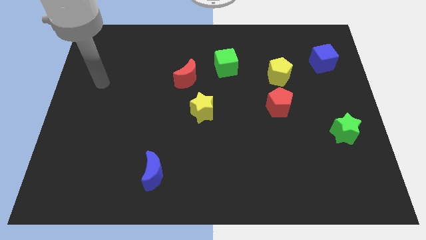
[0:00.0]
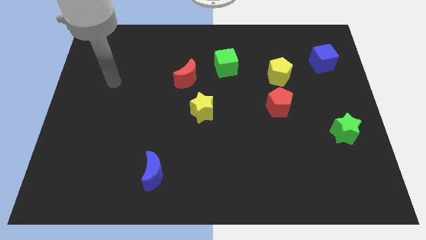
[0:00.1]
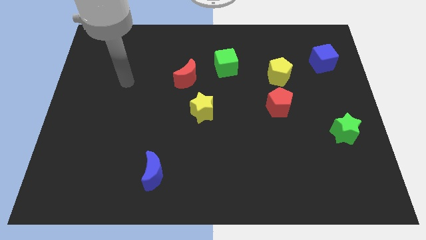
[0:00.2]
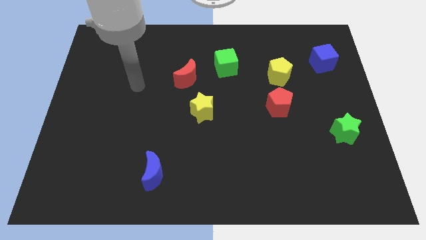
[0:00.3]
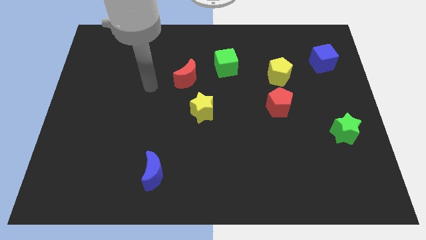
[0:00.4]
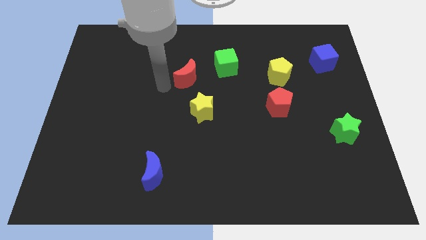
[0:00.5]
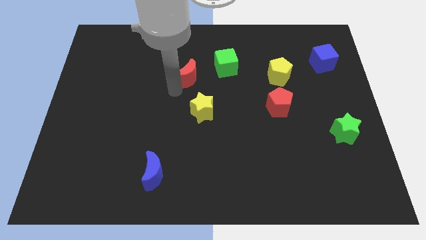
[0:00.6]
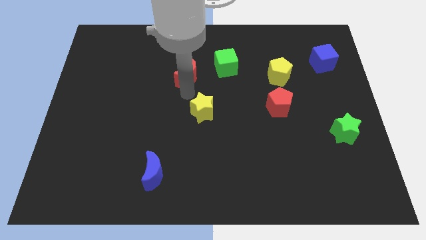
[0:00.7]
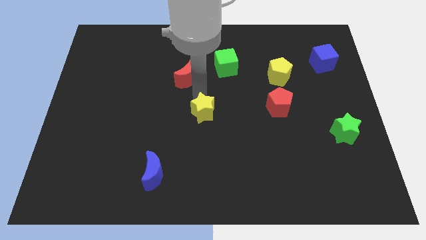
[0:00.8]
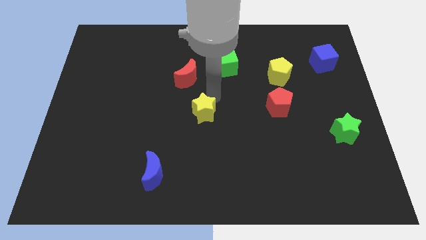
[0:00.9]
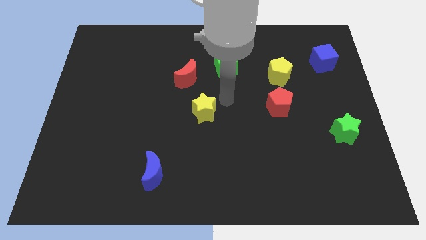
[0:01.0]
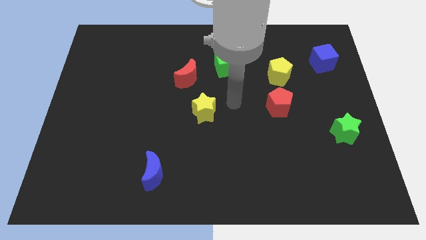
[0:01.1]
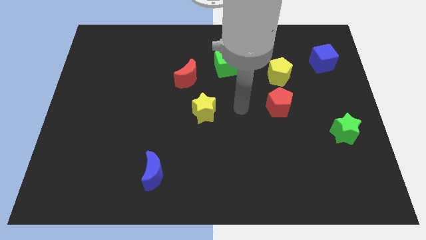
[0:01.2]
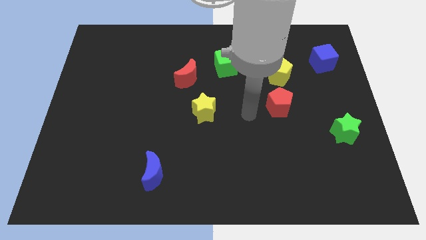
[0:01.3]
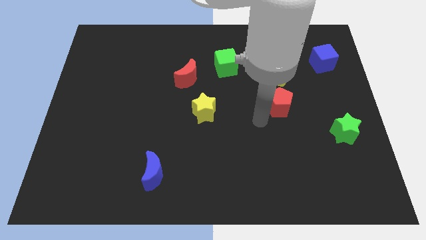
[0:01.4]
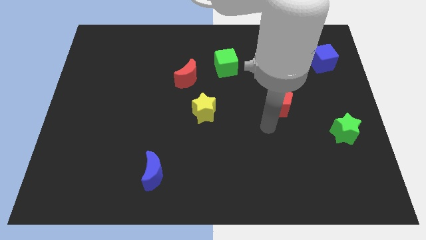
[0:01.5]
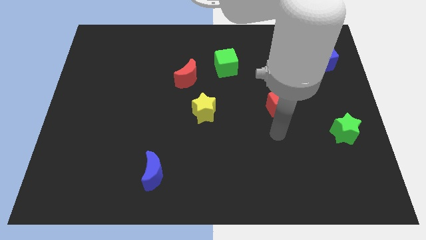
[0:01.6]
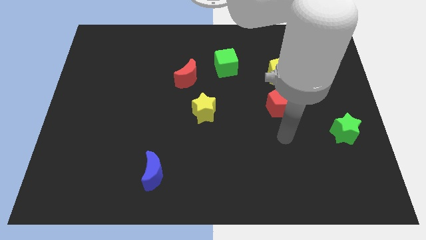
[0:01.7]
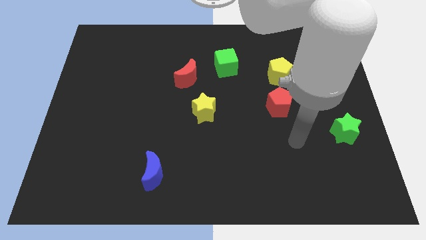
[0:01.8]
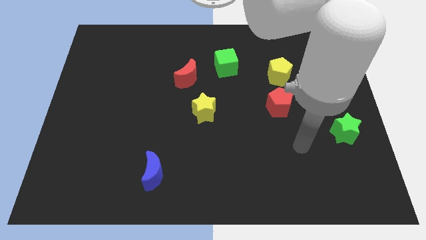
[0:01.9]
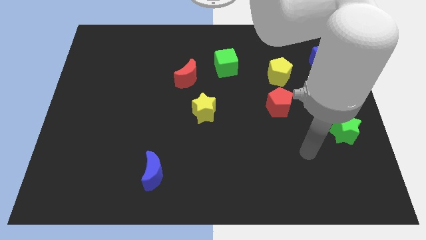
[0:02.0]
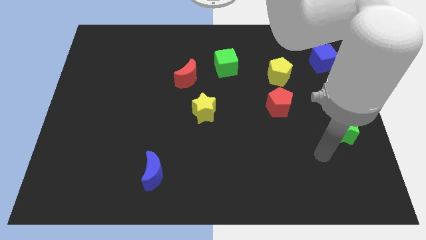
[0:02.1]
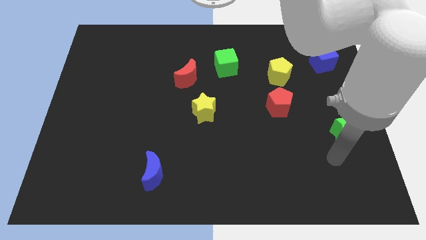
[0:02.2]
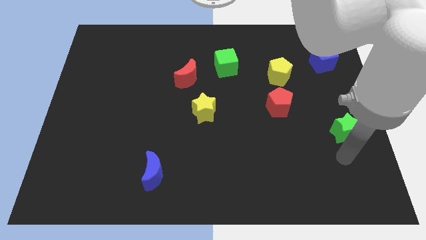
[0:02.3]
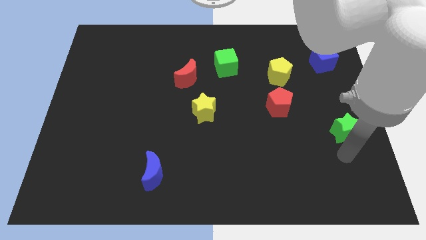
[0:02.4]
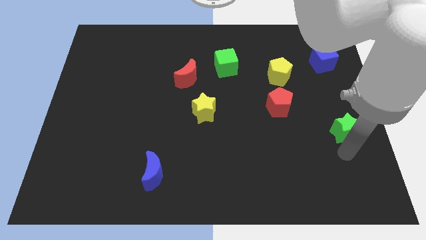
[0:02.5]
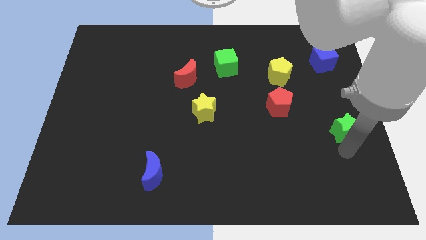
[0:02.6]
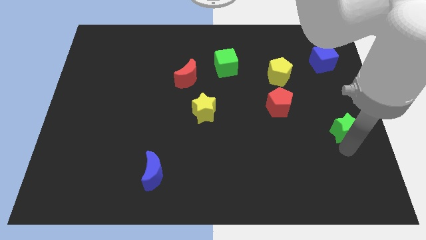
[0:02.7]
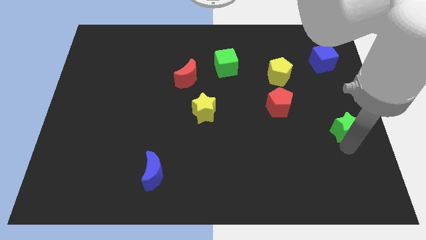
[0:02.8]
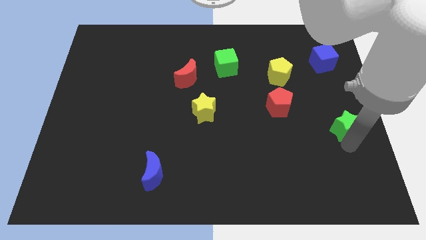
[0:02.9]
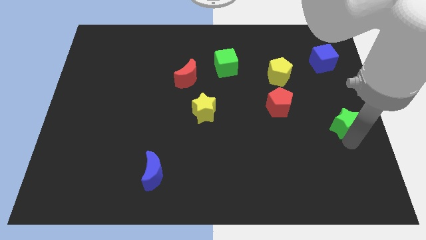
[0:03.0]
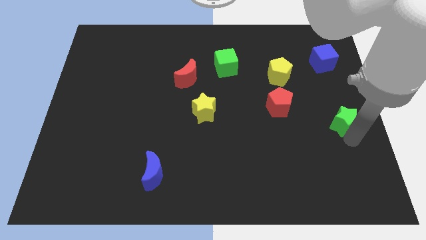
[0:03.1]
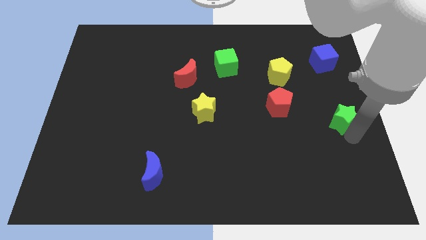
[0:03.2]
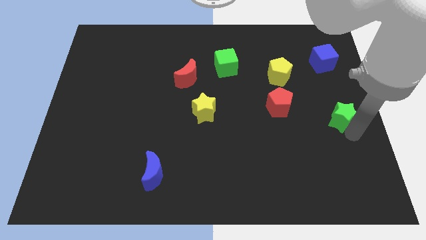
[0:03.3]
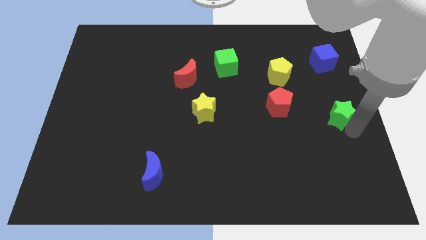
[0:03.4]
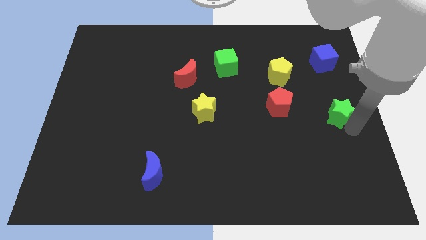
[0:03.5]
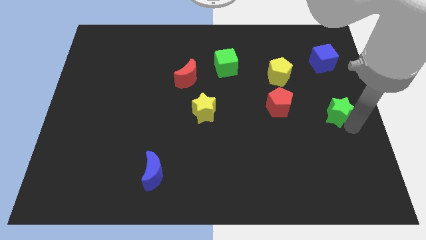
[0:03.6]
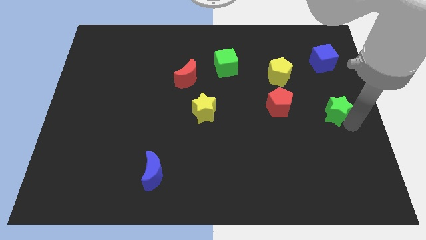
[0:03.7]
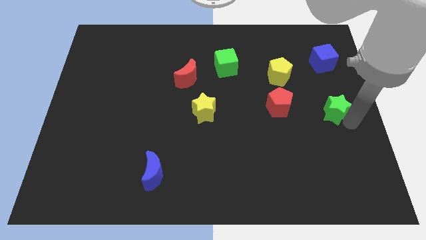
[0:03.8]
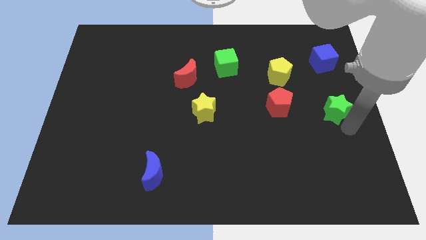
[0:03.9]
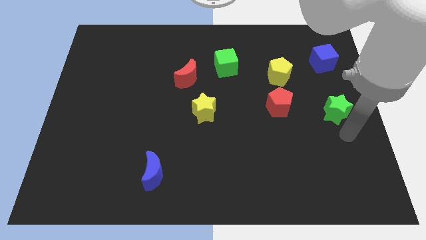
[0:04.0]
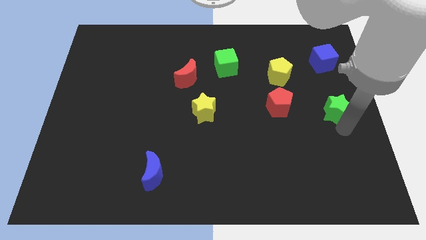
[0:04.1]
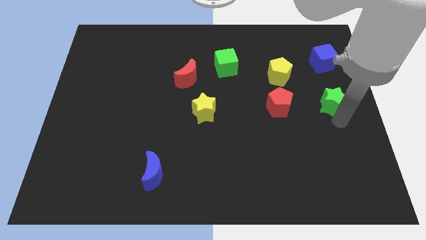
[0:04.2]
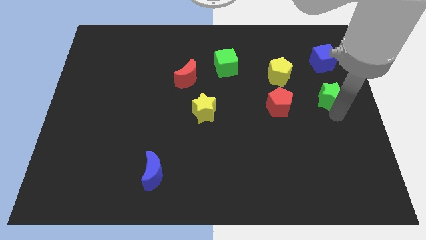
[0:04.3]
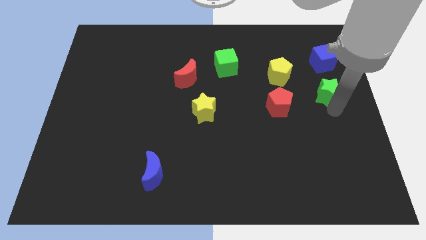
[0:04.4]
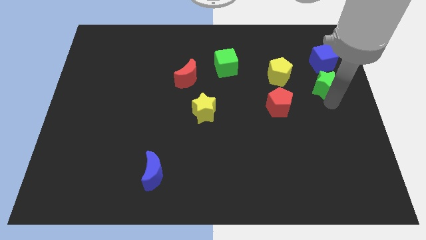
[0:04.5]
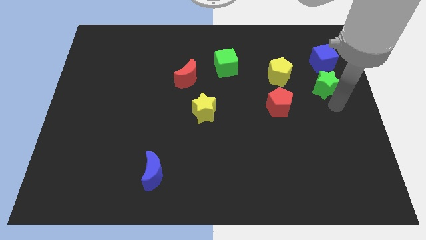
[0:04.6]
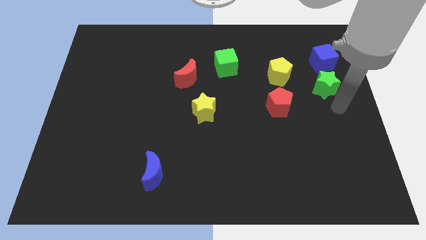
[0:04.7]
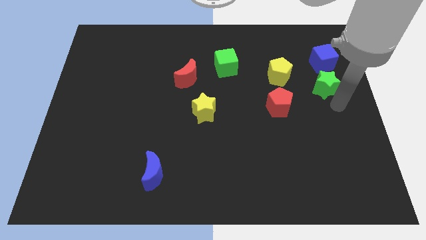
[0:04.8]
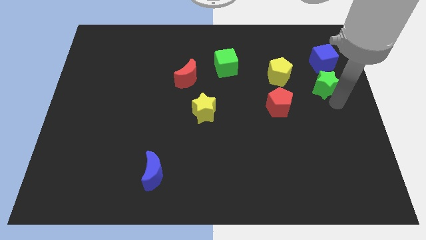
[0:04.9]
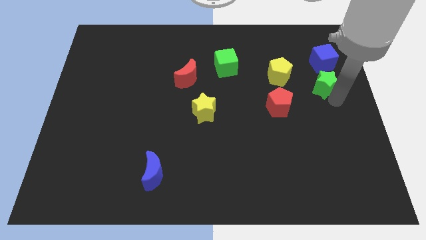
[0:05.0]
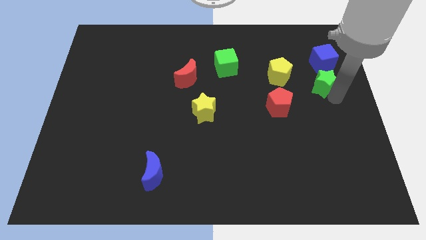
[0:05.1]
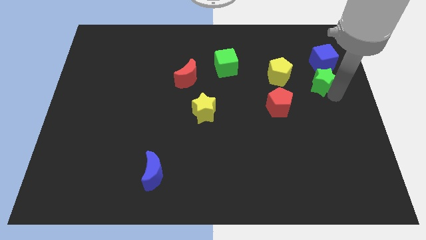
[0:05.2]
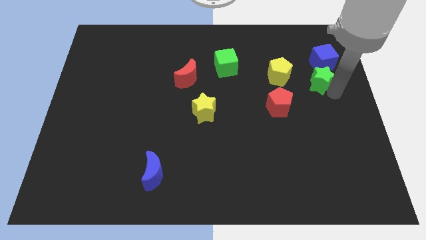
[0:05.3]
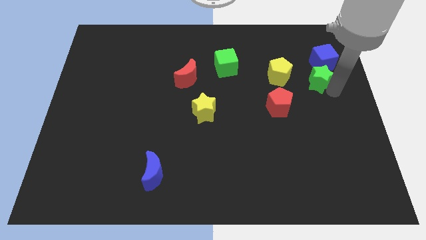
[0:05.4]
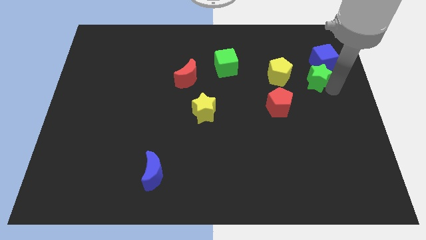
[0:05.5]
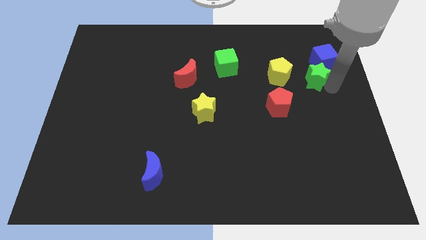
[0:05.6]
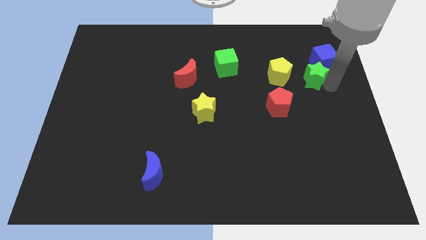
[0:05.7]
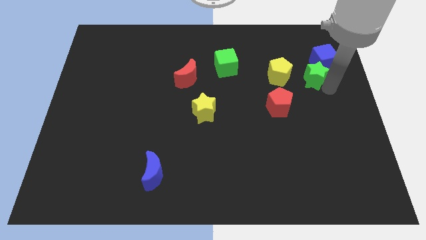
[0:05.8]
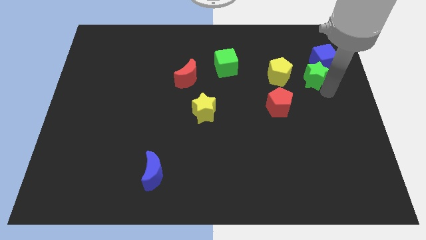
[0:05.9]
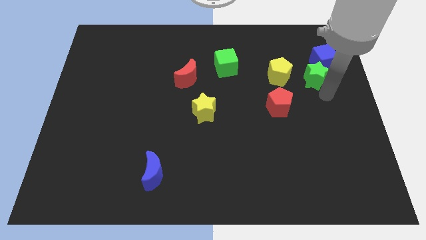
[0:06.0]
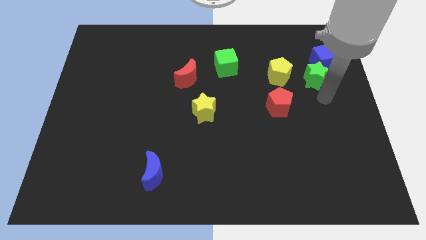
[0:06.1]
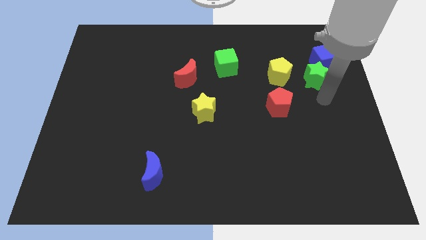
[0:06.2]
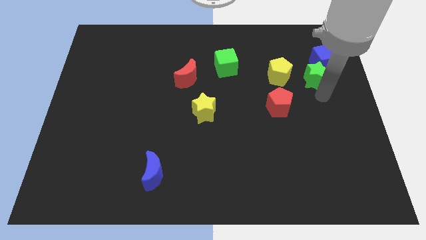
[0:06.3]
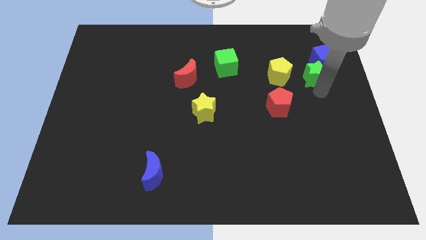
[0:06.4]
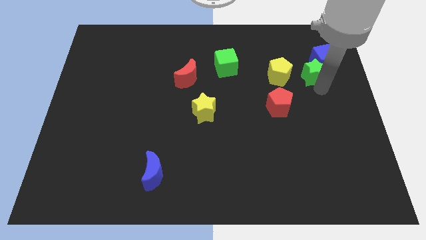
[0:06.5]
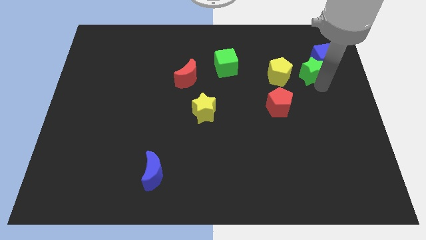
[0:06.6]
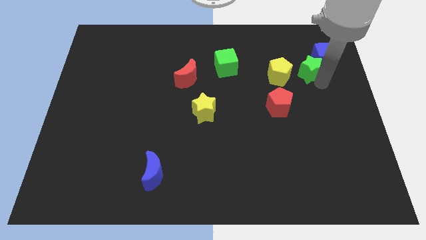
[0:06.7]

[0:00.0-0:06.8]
put the green star just left of the blue cube

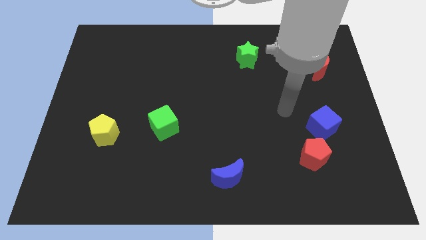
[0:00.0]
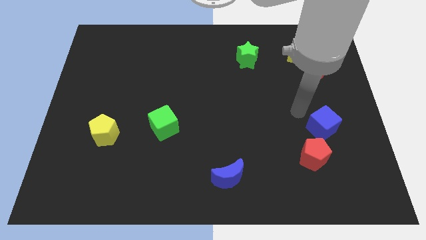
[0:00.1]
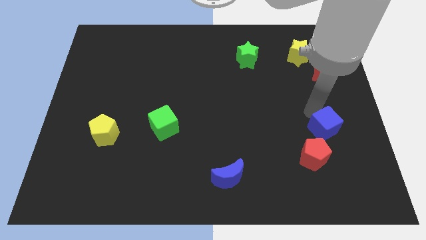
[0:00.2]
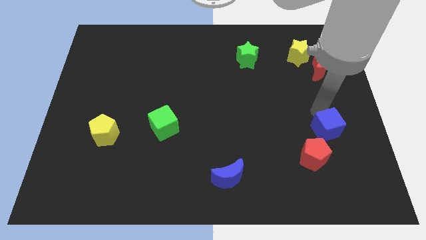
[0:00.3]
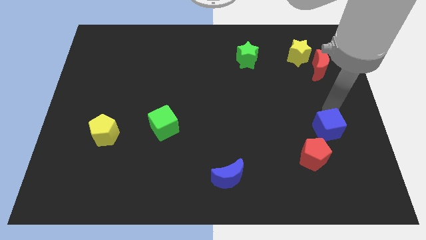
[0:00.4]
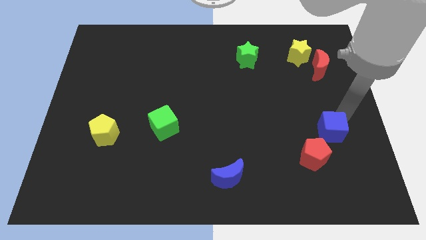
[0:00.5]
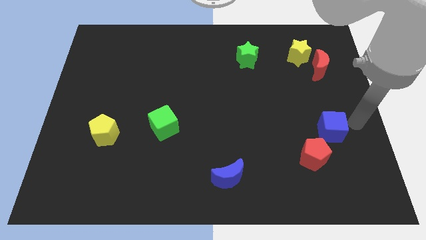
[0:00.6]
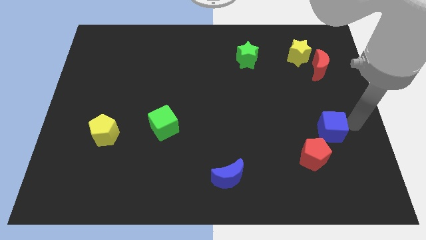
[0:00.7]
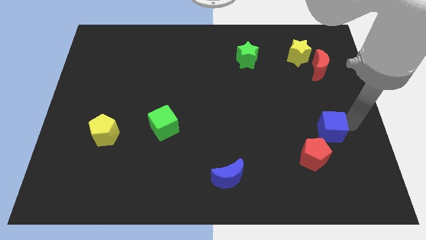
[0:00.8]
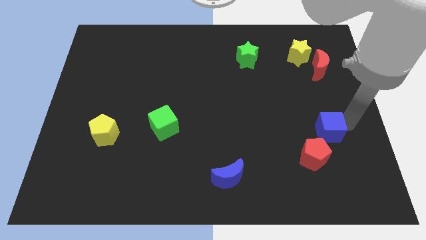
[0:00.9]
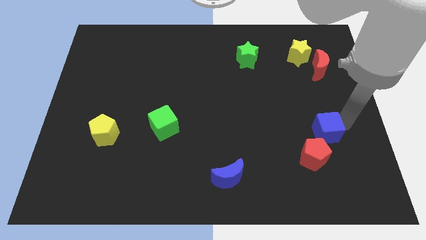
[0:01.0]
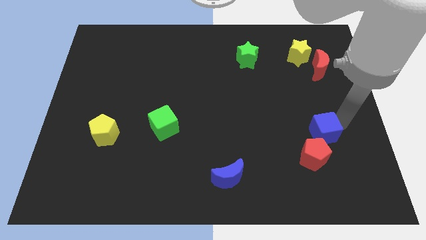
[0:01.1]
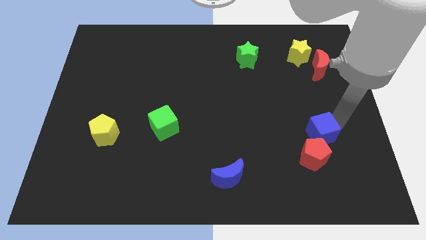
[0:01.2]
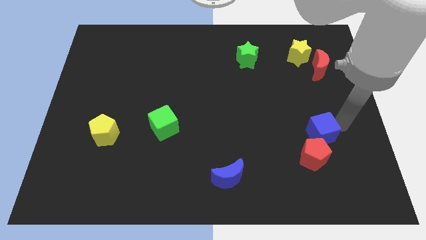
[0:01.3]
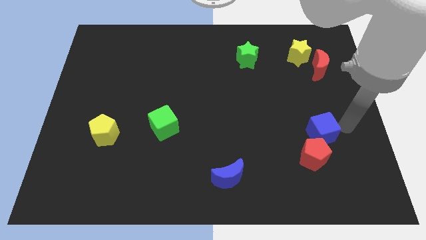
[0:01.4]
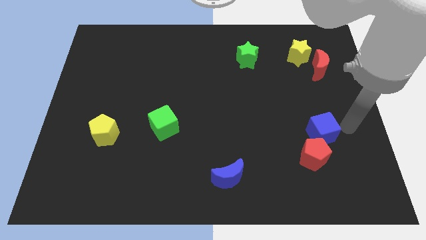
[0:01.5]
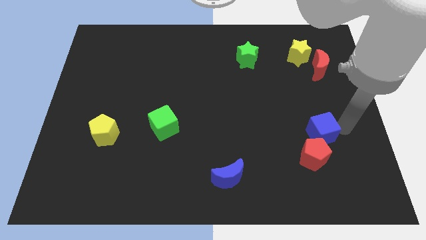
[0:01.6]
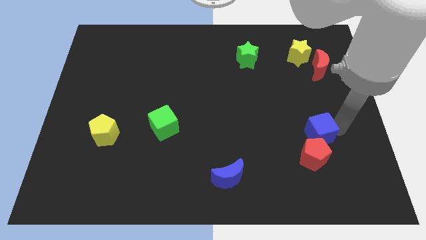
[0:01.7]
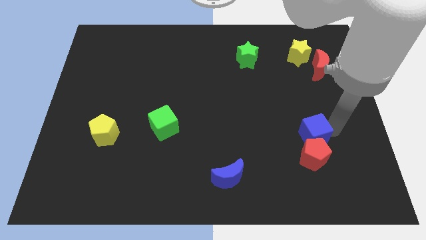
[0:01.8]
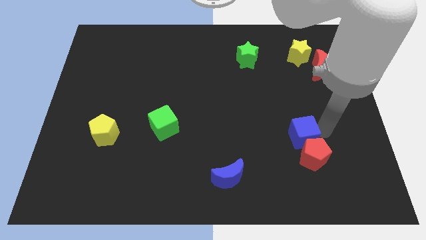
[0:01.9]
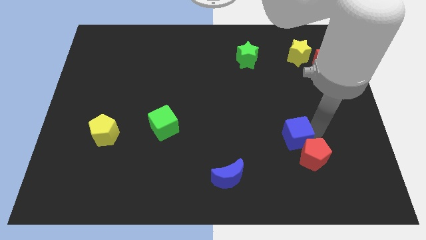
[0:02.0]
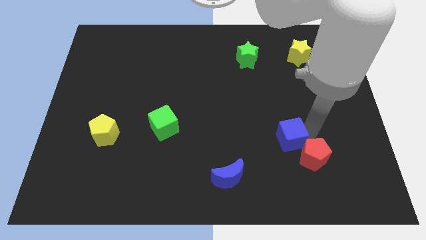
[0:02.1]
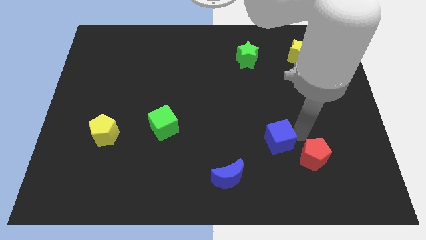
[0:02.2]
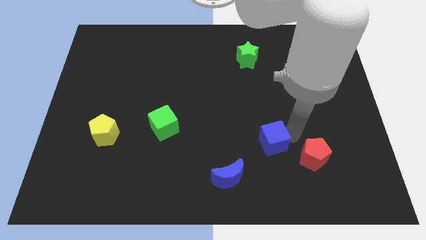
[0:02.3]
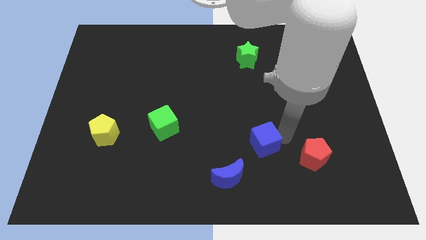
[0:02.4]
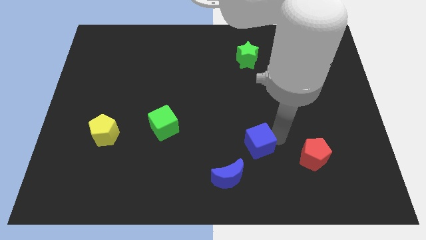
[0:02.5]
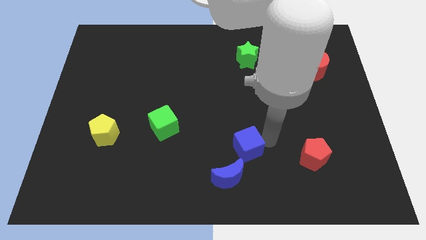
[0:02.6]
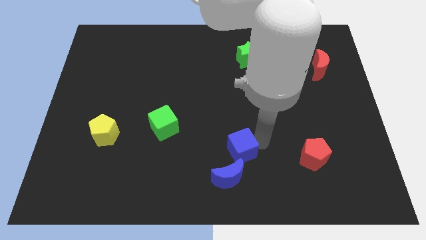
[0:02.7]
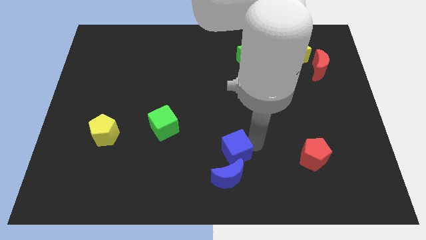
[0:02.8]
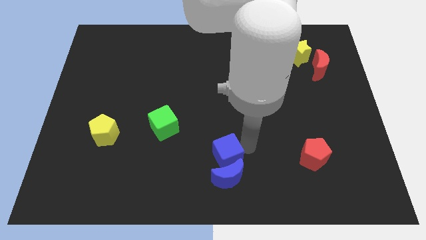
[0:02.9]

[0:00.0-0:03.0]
put the blue cube diagonally up and to the left of the blue moon
